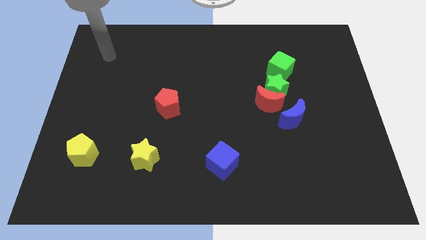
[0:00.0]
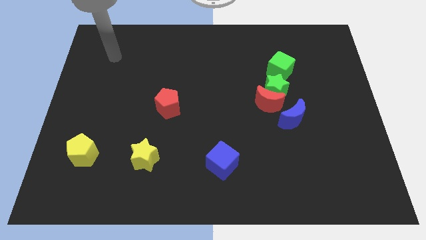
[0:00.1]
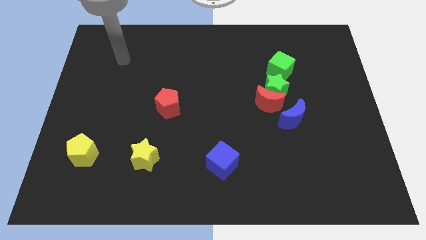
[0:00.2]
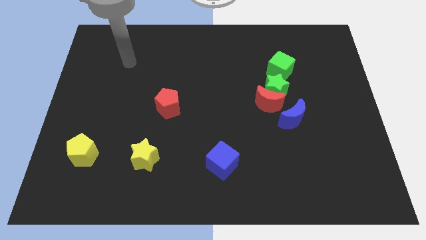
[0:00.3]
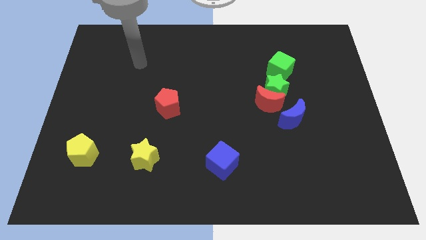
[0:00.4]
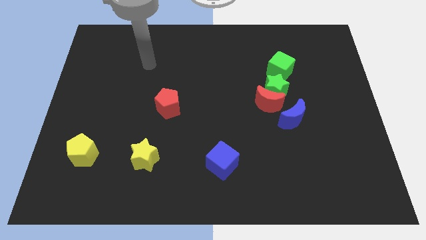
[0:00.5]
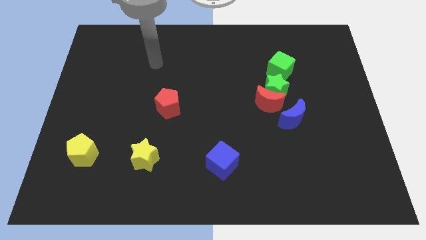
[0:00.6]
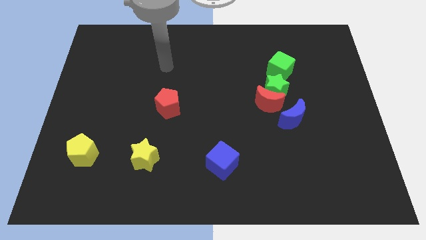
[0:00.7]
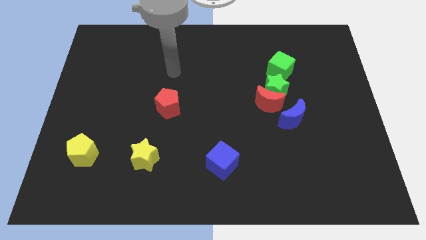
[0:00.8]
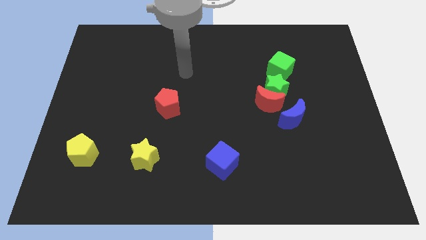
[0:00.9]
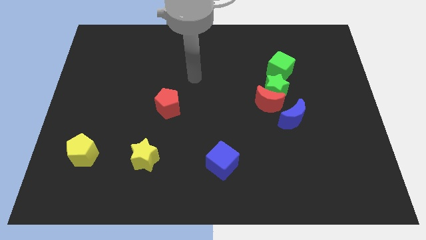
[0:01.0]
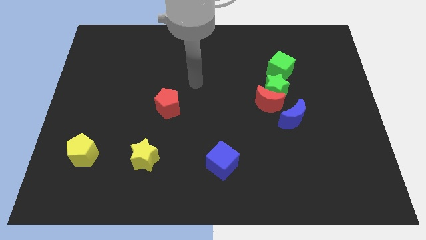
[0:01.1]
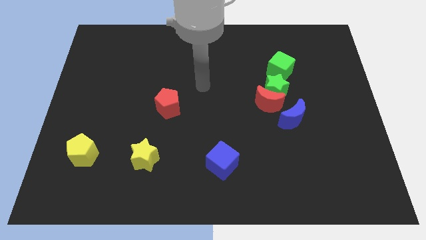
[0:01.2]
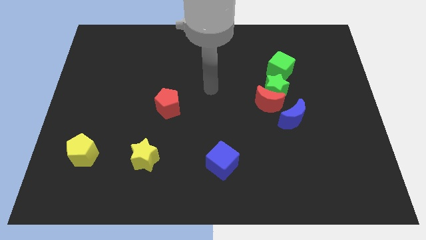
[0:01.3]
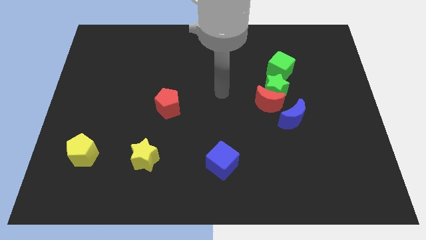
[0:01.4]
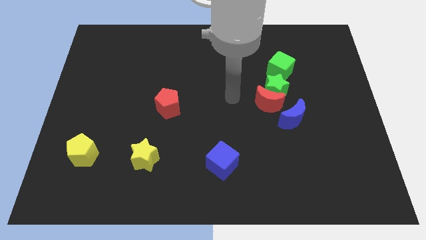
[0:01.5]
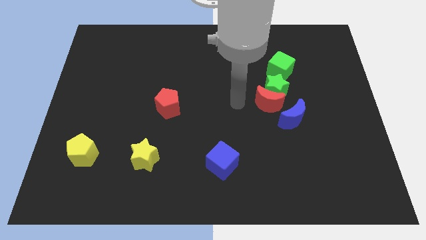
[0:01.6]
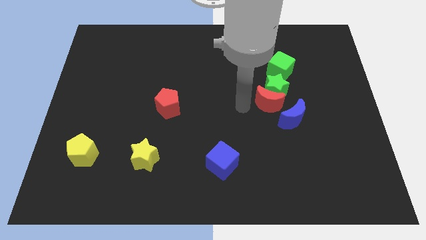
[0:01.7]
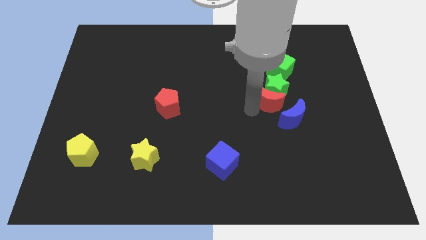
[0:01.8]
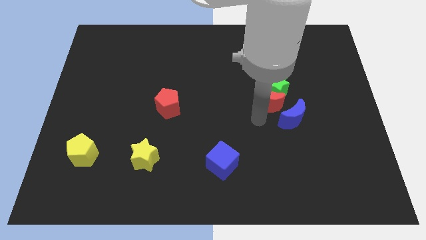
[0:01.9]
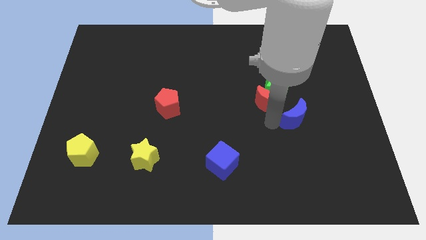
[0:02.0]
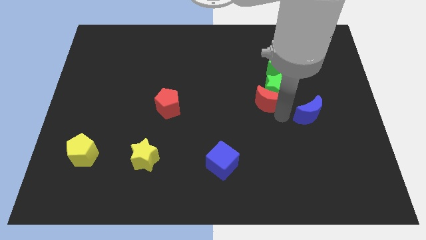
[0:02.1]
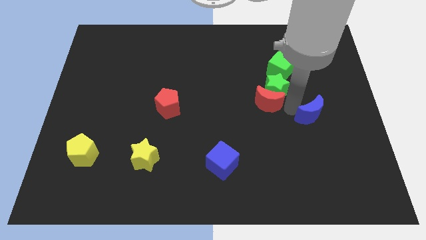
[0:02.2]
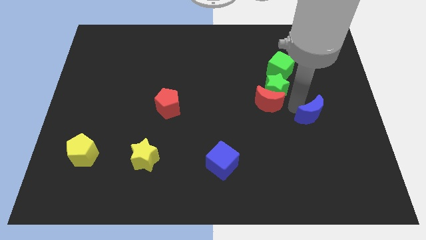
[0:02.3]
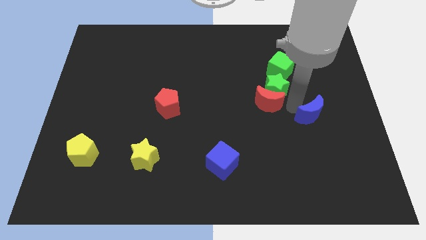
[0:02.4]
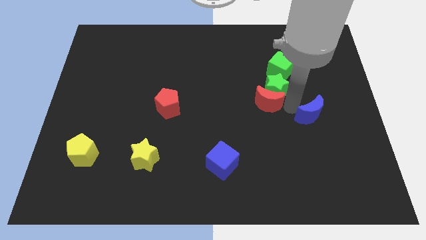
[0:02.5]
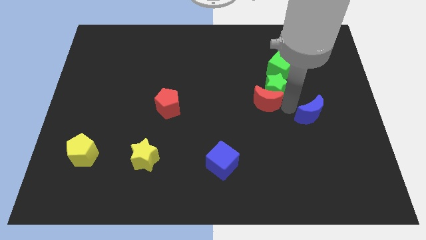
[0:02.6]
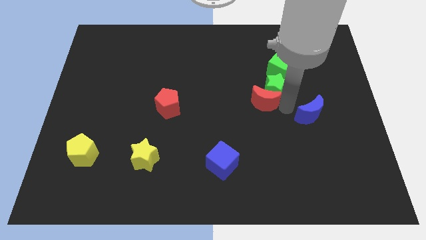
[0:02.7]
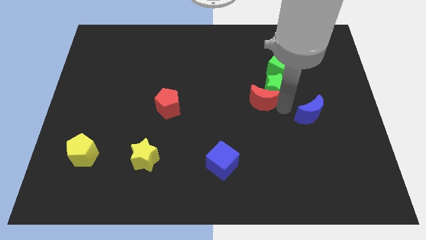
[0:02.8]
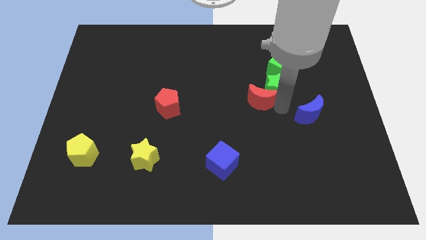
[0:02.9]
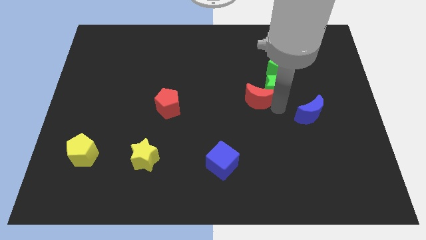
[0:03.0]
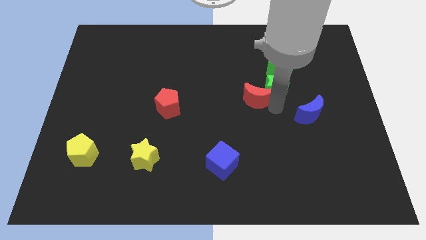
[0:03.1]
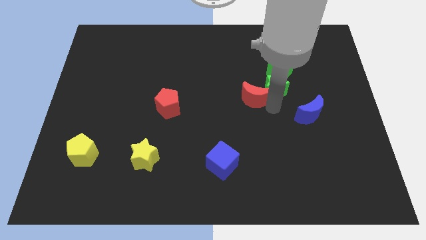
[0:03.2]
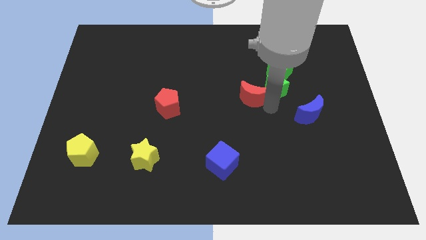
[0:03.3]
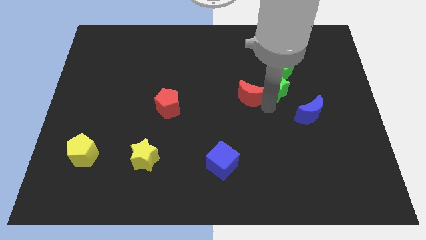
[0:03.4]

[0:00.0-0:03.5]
pull the red moon apart from the green star and blue moon

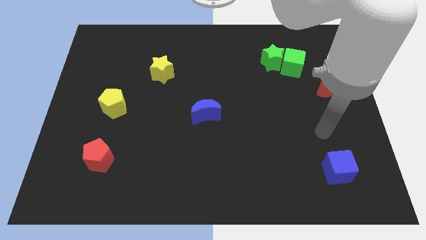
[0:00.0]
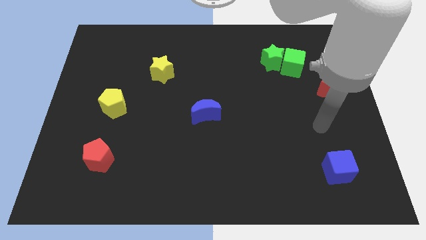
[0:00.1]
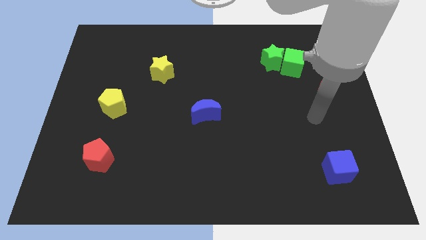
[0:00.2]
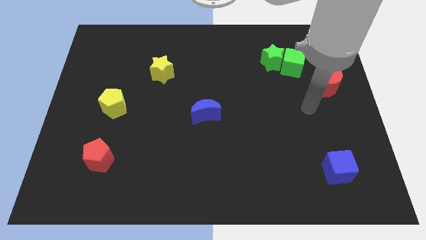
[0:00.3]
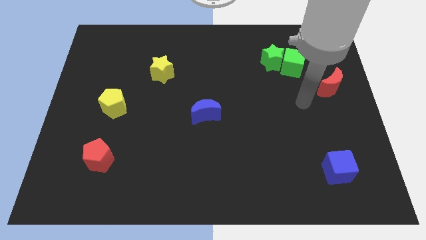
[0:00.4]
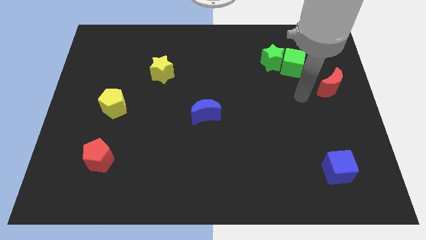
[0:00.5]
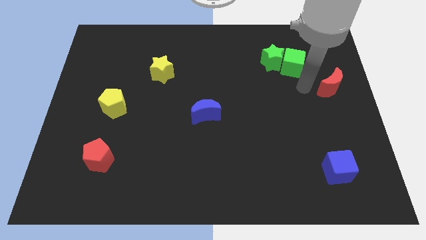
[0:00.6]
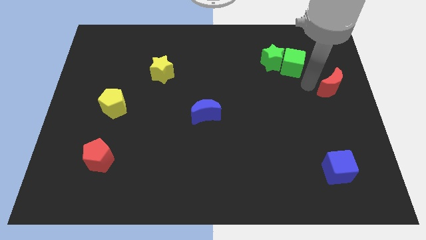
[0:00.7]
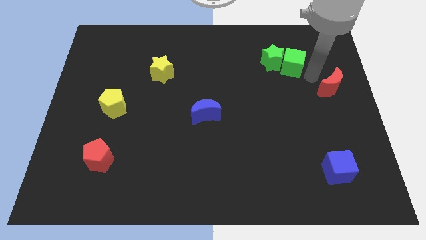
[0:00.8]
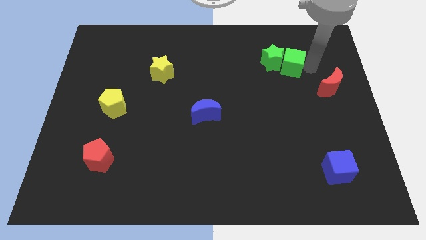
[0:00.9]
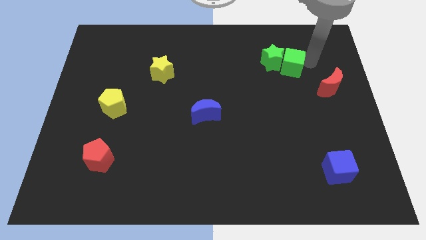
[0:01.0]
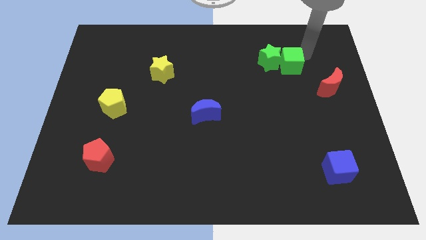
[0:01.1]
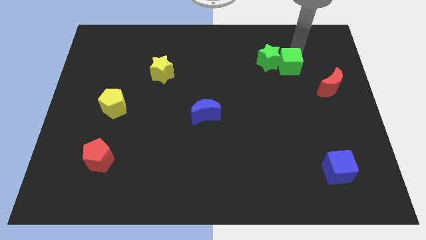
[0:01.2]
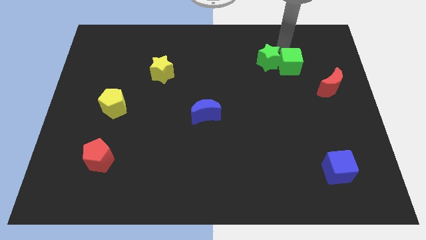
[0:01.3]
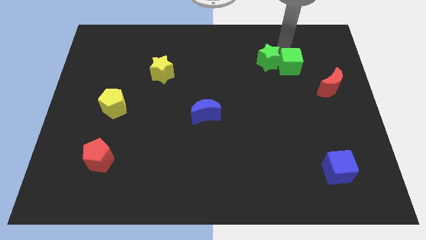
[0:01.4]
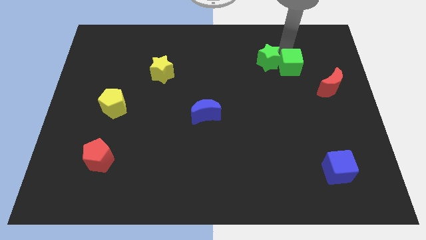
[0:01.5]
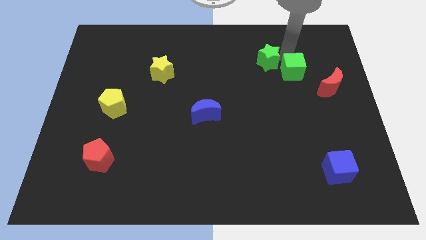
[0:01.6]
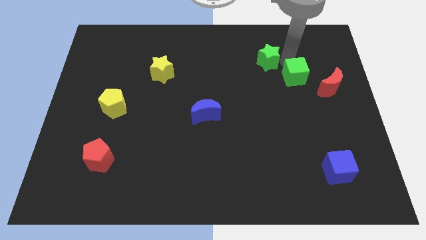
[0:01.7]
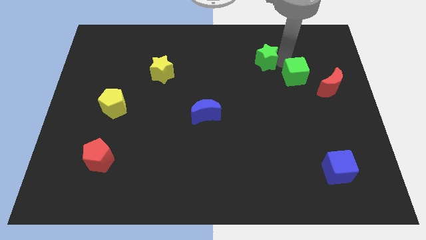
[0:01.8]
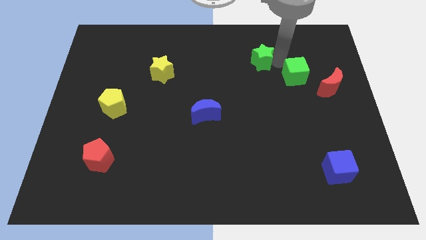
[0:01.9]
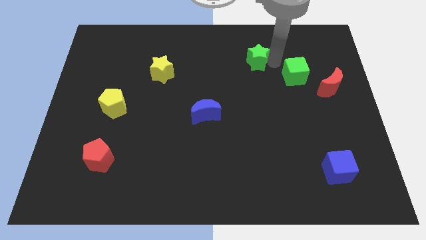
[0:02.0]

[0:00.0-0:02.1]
move the green cube away from the green star

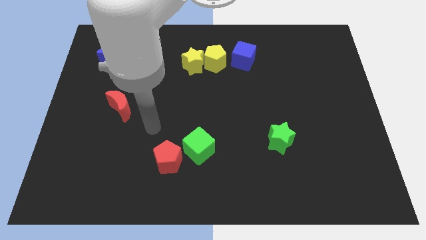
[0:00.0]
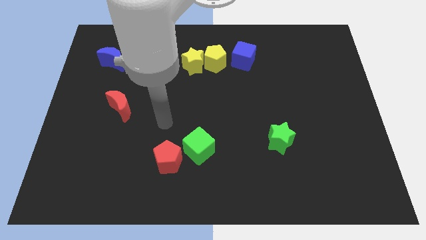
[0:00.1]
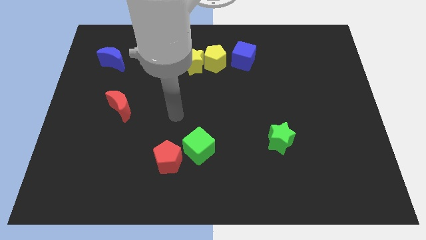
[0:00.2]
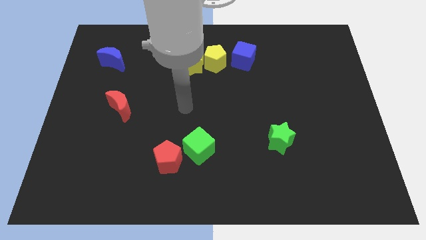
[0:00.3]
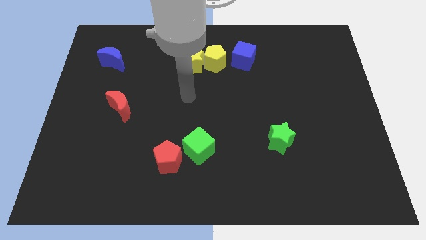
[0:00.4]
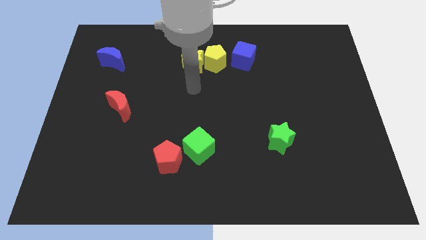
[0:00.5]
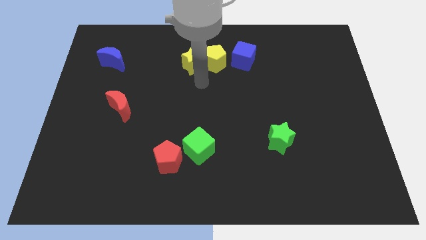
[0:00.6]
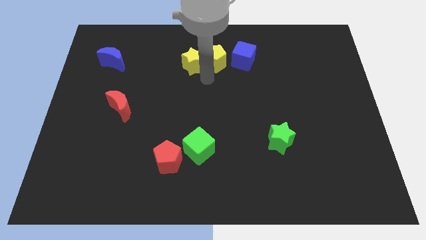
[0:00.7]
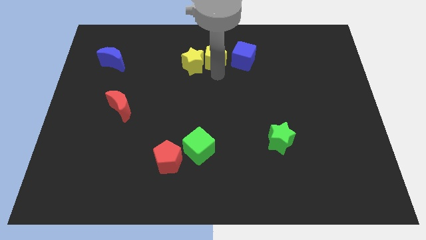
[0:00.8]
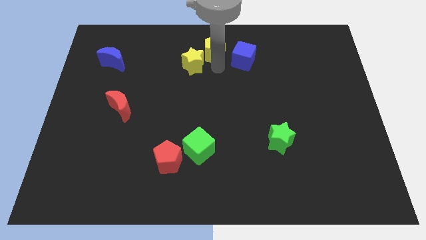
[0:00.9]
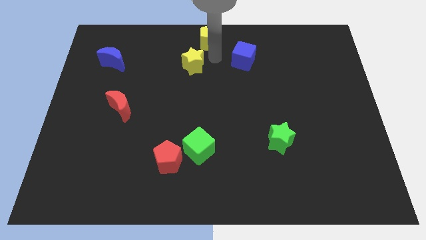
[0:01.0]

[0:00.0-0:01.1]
pull the yellow star apart from the yellow pentagon

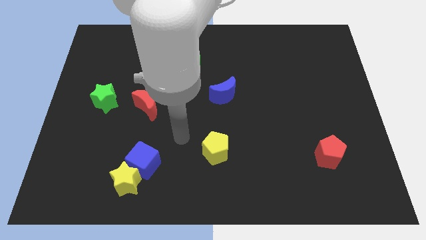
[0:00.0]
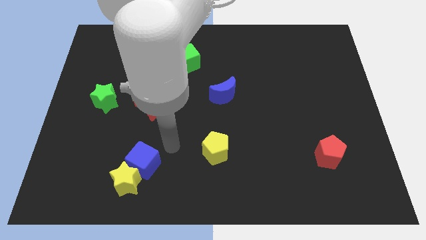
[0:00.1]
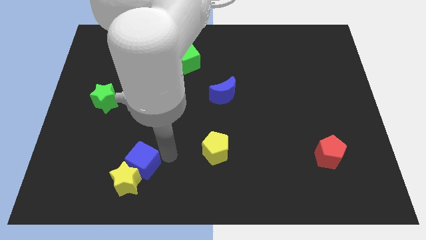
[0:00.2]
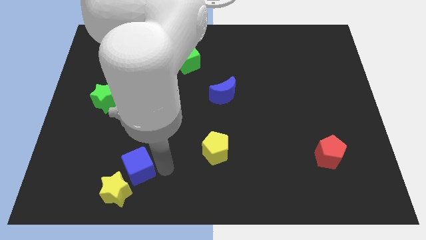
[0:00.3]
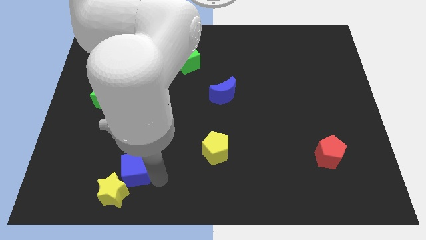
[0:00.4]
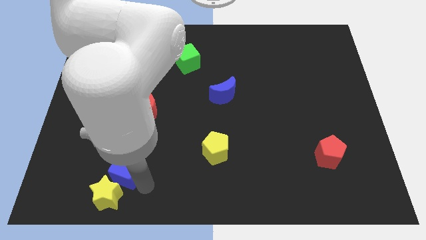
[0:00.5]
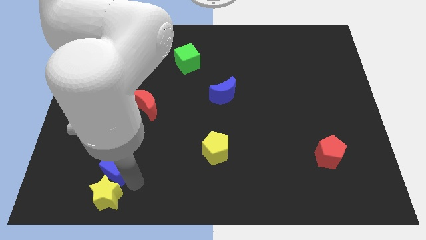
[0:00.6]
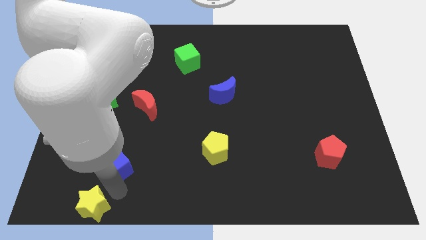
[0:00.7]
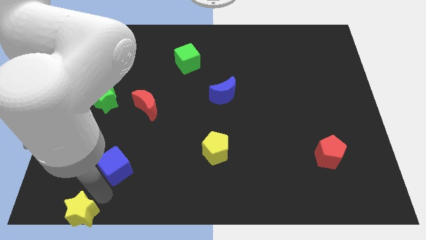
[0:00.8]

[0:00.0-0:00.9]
separate the blue cube from the yellow star

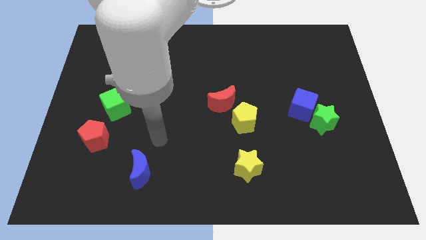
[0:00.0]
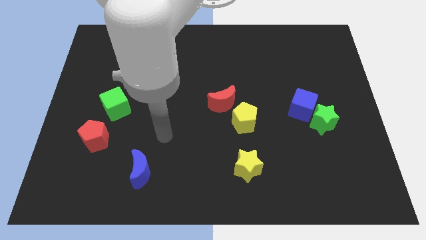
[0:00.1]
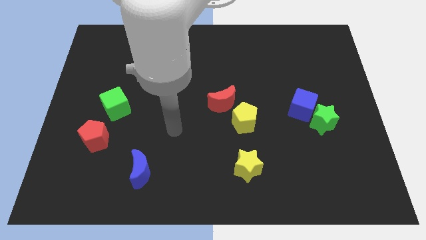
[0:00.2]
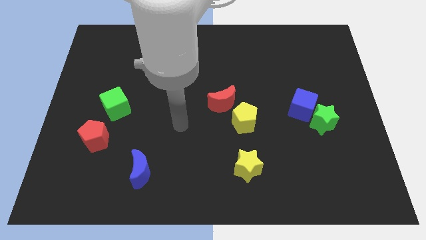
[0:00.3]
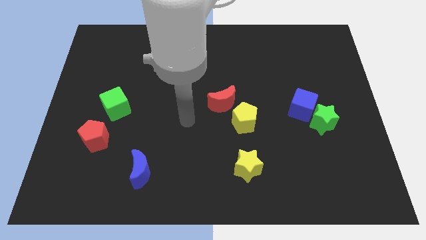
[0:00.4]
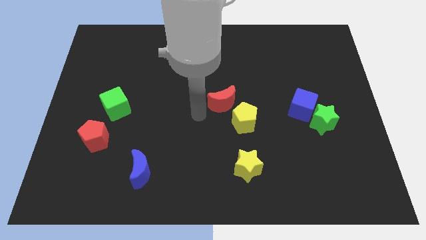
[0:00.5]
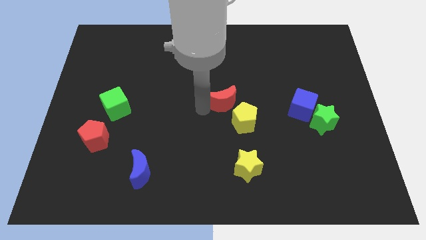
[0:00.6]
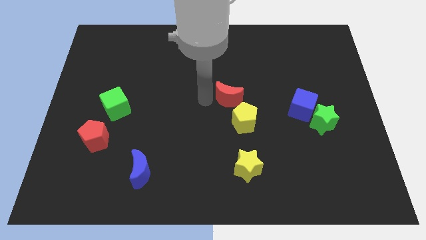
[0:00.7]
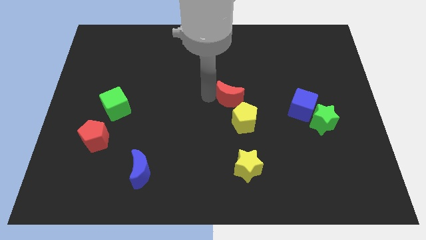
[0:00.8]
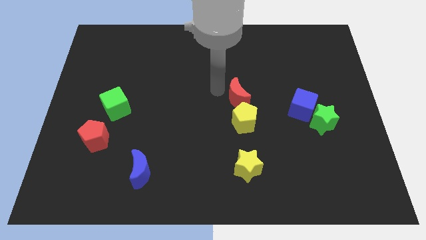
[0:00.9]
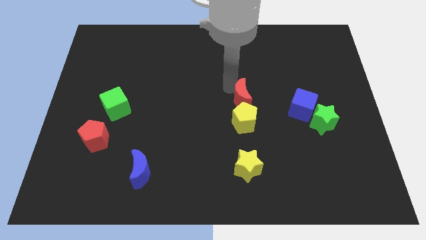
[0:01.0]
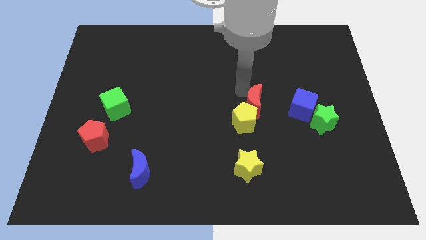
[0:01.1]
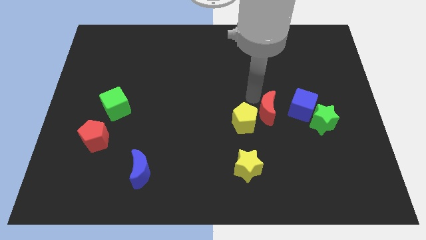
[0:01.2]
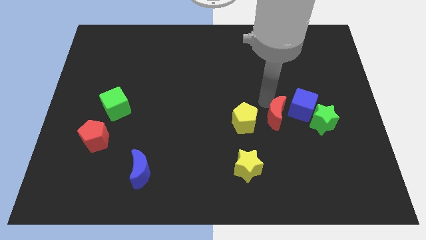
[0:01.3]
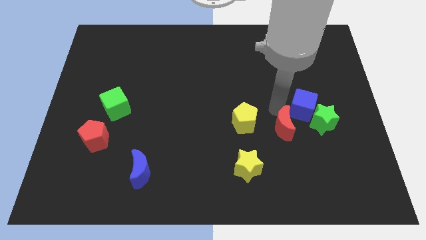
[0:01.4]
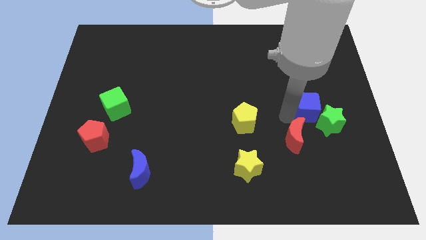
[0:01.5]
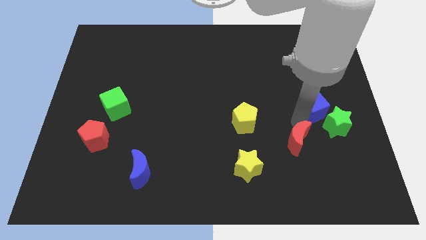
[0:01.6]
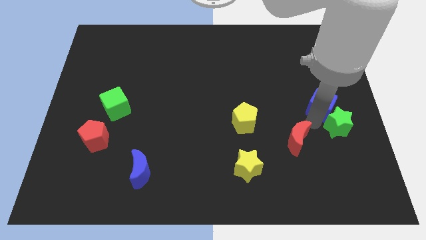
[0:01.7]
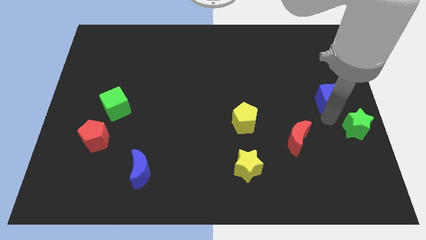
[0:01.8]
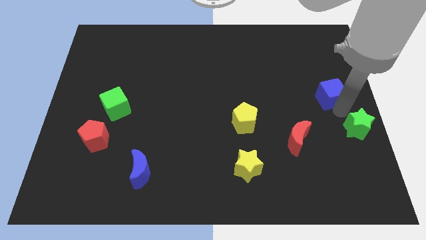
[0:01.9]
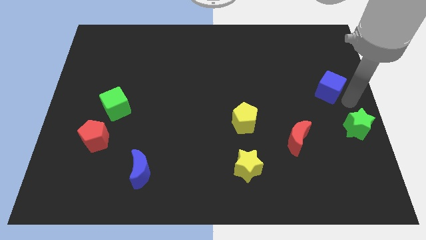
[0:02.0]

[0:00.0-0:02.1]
separate the blue cube from the green star
